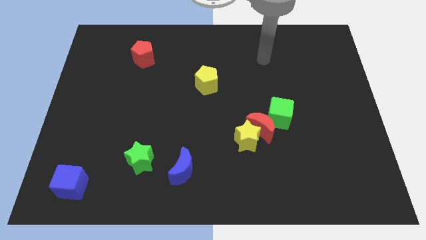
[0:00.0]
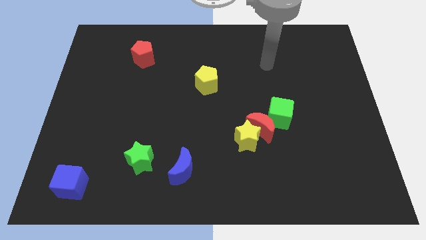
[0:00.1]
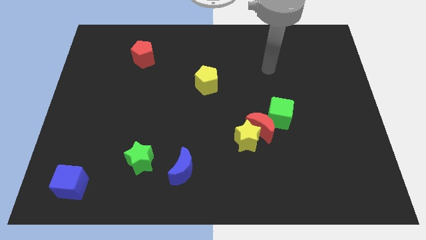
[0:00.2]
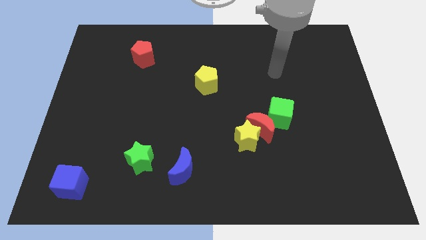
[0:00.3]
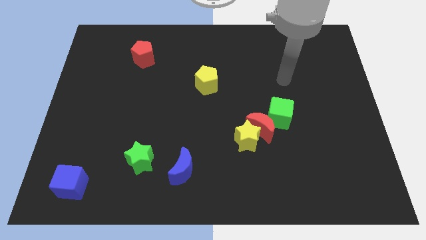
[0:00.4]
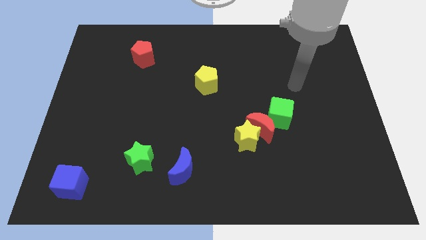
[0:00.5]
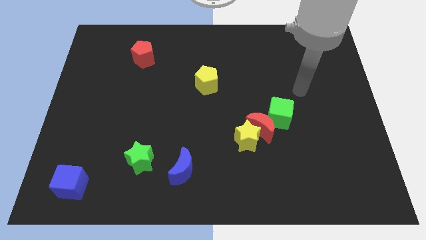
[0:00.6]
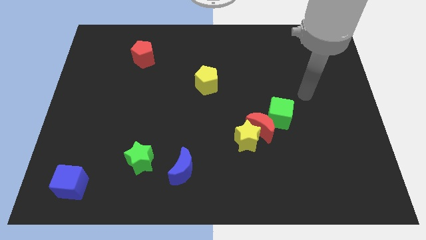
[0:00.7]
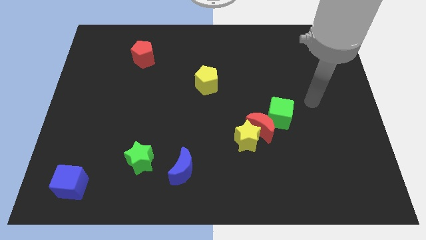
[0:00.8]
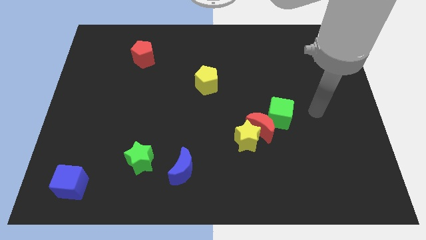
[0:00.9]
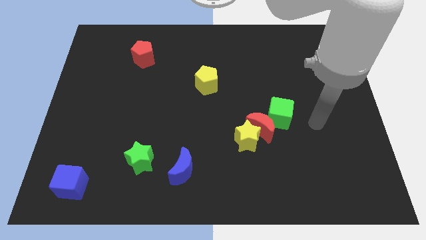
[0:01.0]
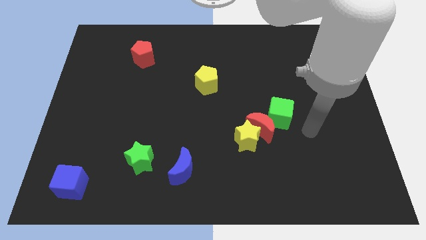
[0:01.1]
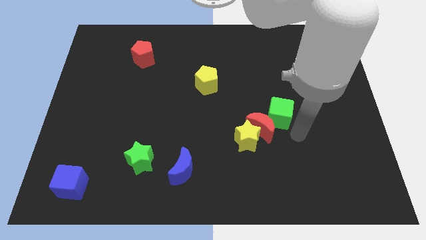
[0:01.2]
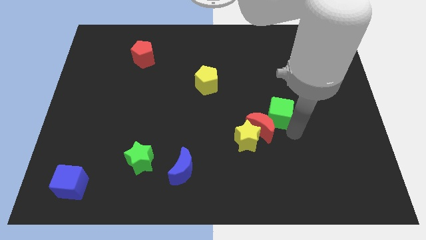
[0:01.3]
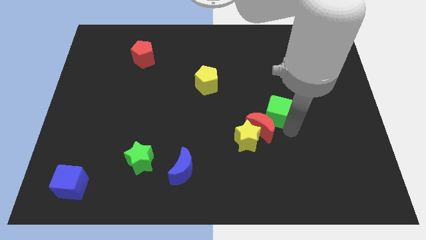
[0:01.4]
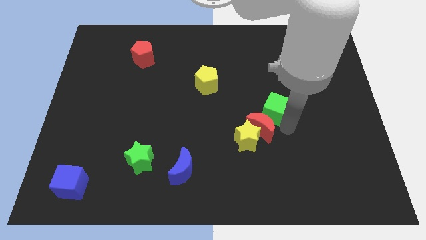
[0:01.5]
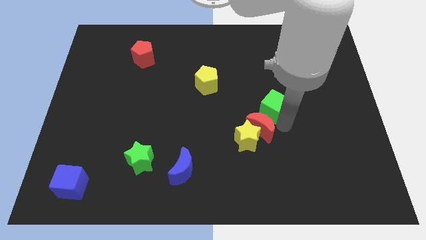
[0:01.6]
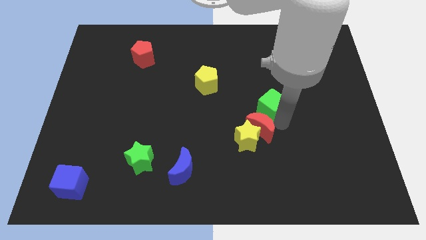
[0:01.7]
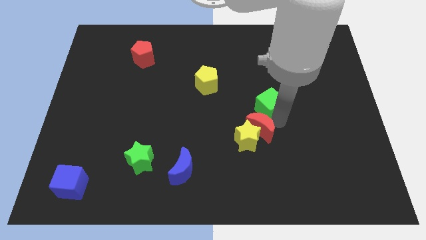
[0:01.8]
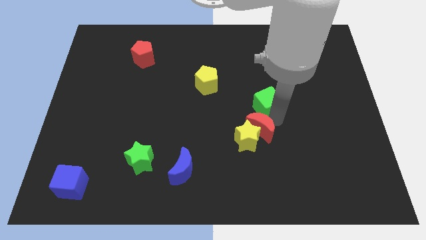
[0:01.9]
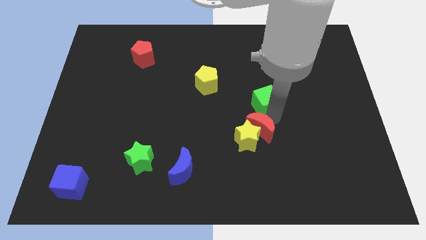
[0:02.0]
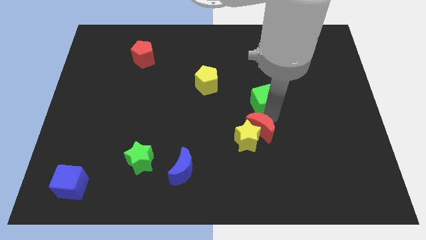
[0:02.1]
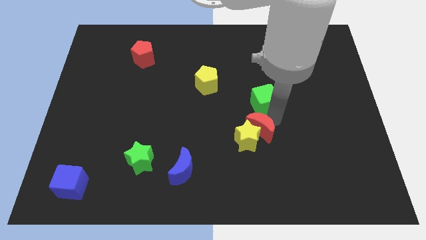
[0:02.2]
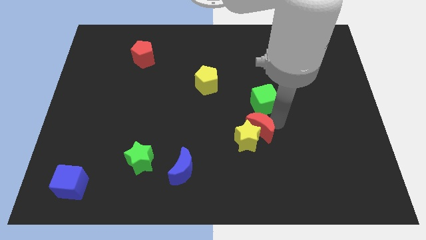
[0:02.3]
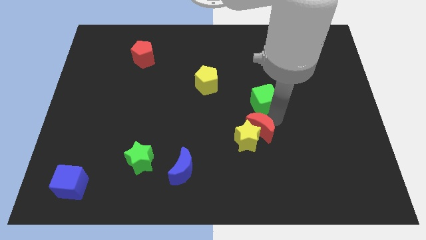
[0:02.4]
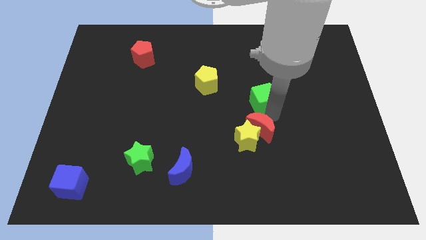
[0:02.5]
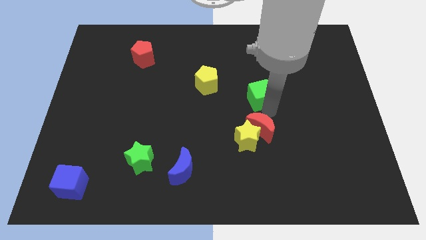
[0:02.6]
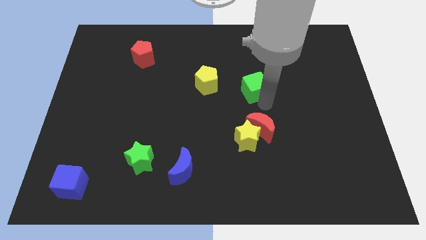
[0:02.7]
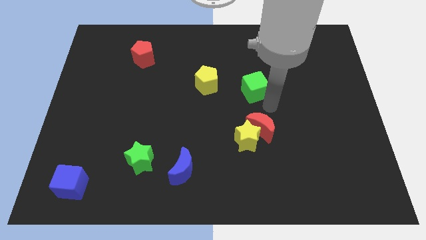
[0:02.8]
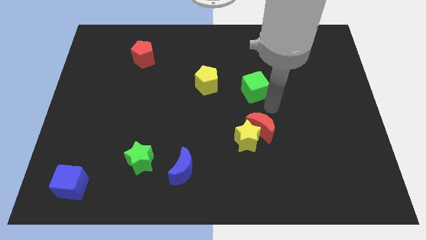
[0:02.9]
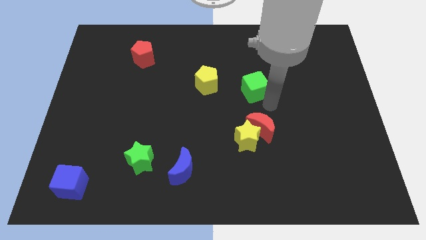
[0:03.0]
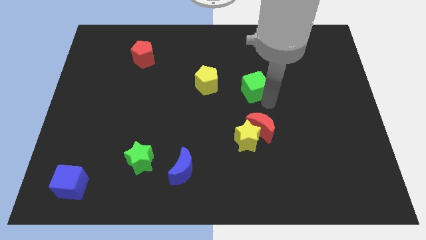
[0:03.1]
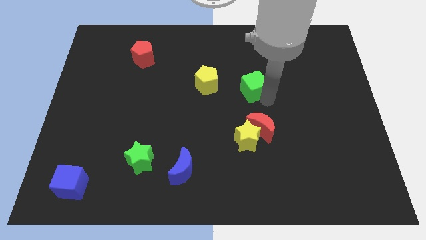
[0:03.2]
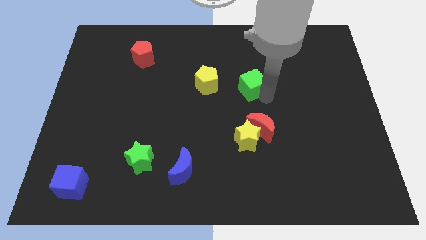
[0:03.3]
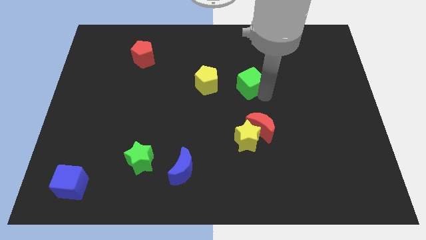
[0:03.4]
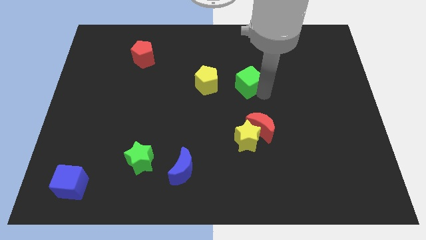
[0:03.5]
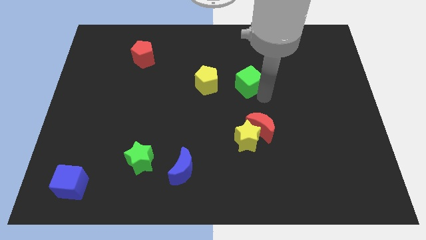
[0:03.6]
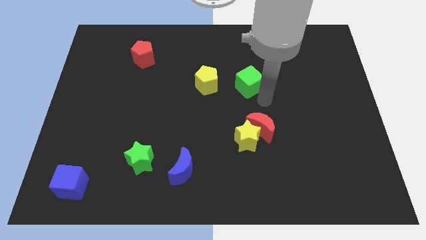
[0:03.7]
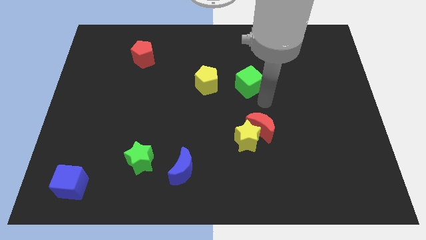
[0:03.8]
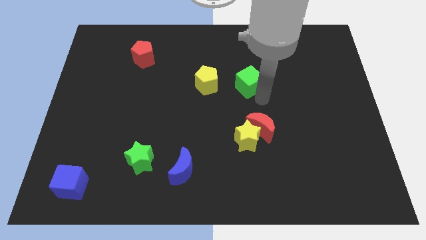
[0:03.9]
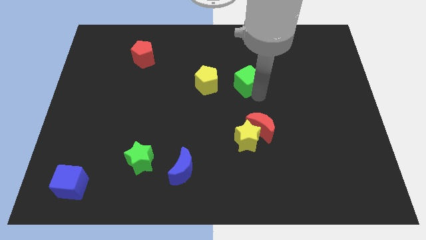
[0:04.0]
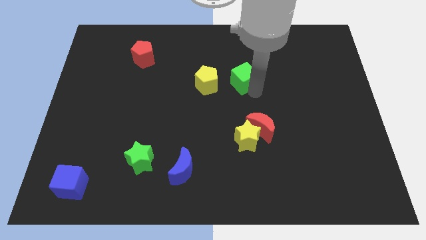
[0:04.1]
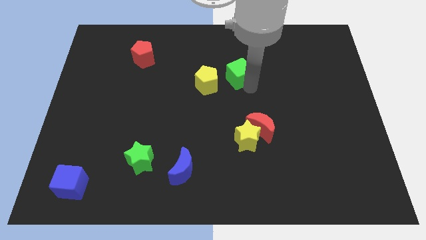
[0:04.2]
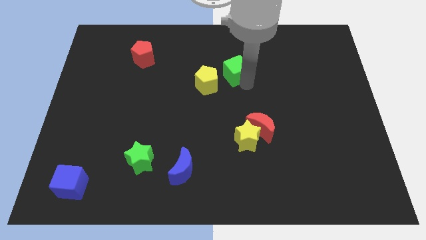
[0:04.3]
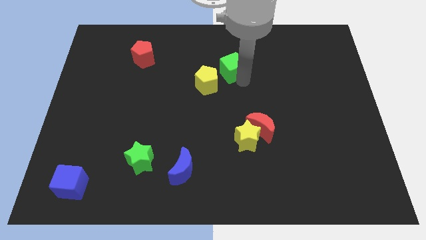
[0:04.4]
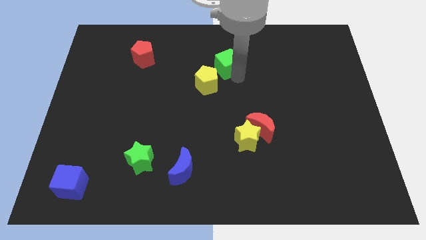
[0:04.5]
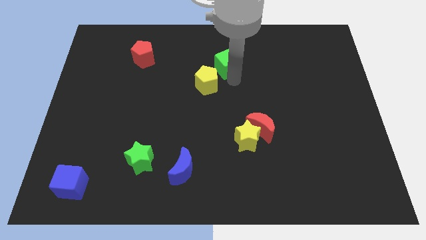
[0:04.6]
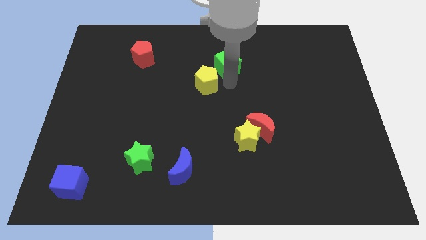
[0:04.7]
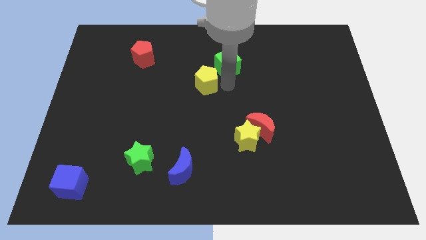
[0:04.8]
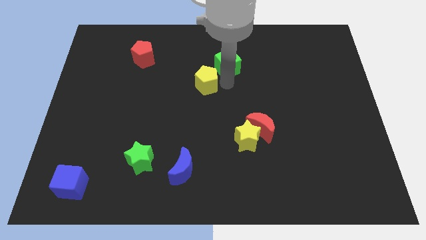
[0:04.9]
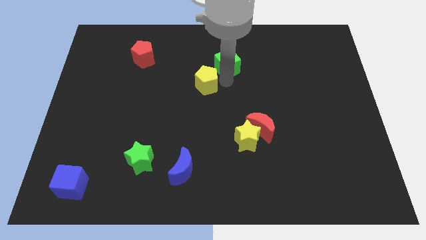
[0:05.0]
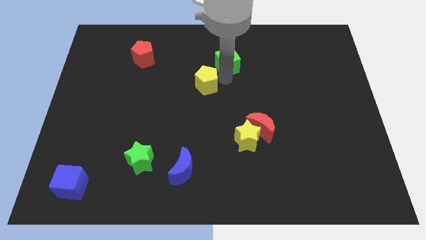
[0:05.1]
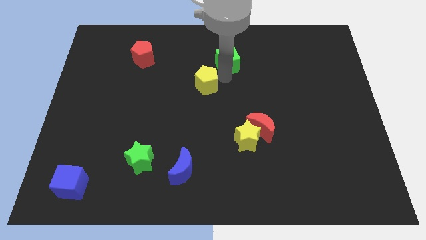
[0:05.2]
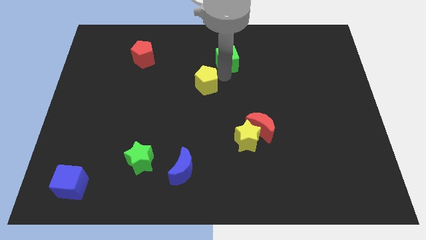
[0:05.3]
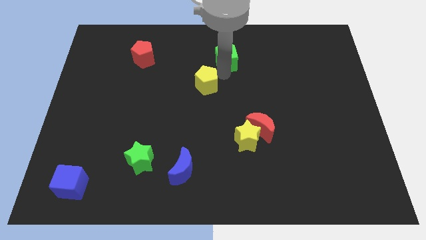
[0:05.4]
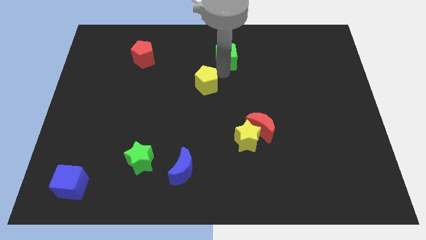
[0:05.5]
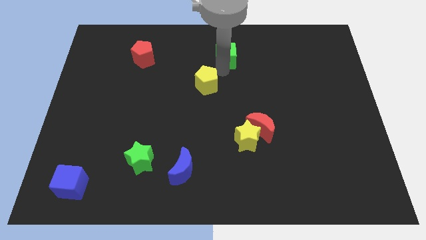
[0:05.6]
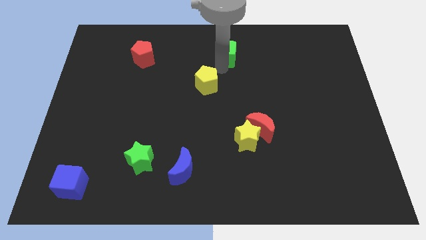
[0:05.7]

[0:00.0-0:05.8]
move the green cube to the top
